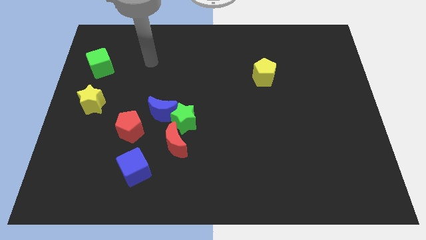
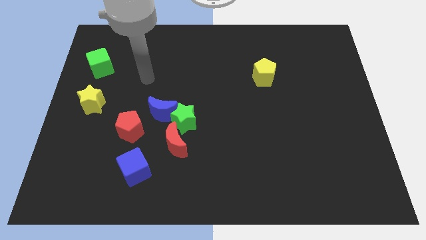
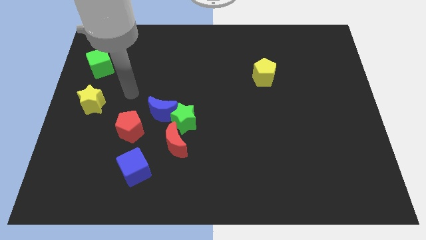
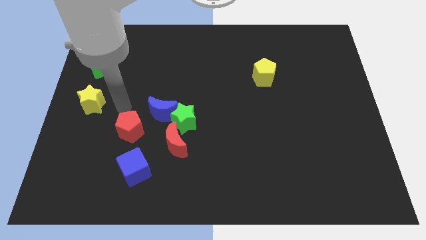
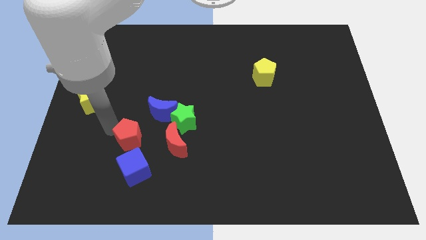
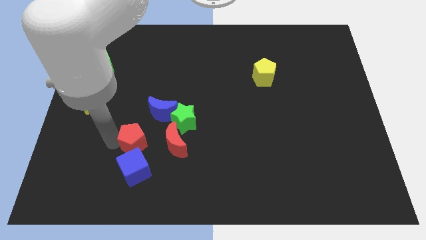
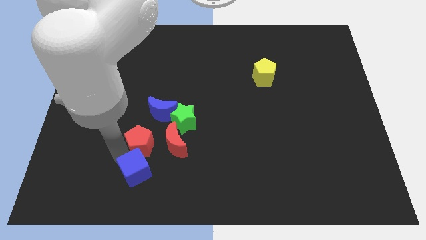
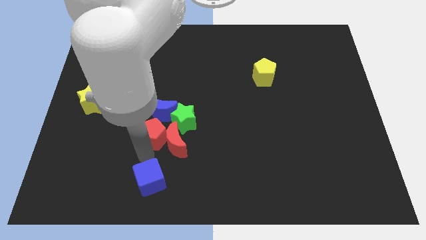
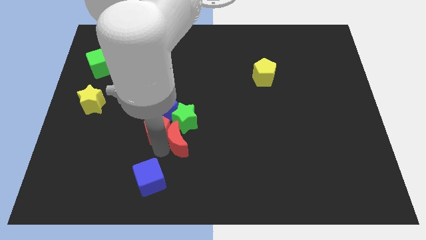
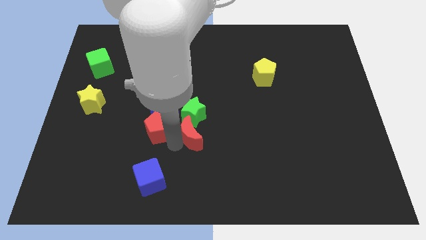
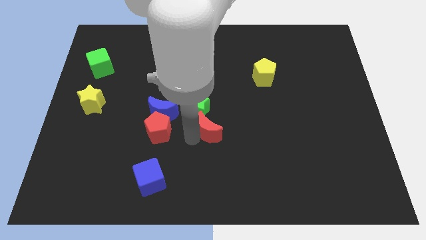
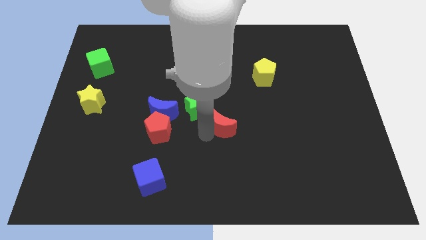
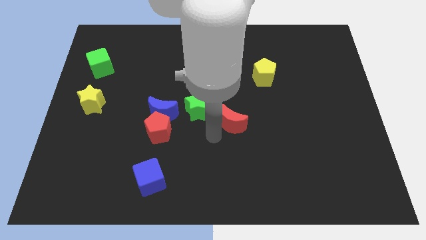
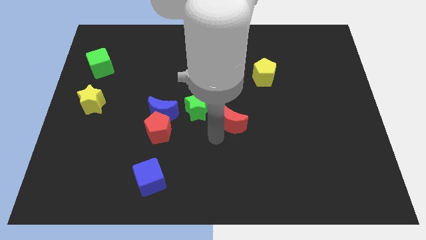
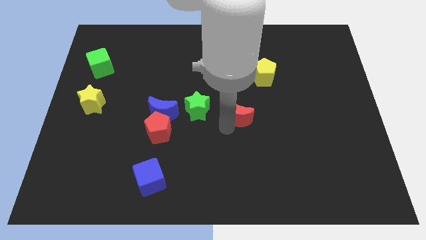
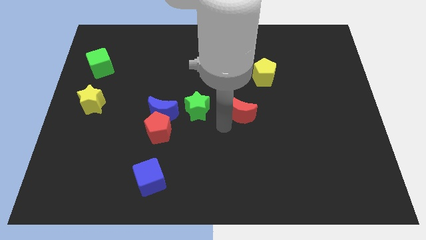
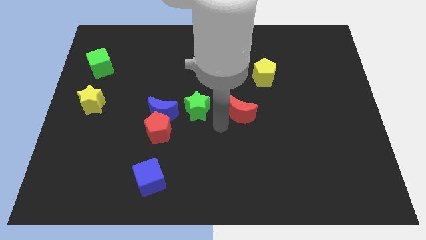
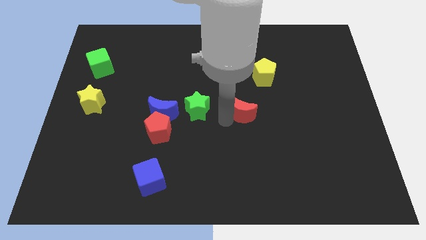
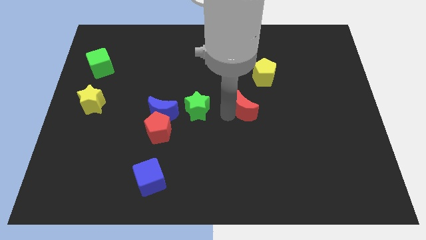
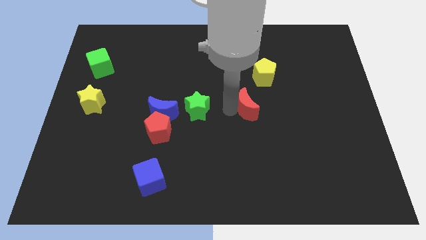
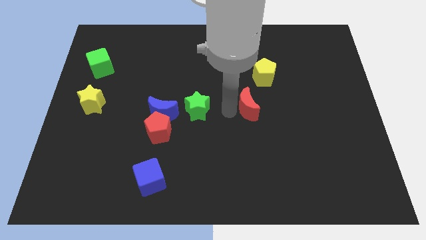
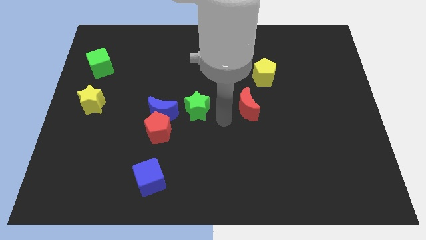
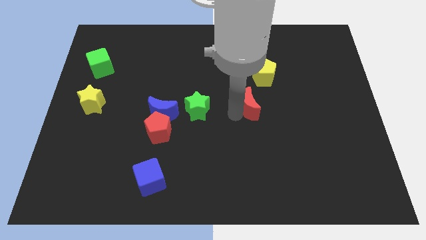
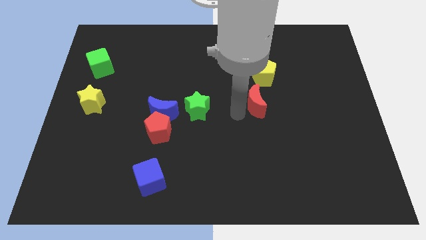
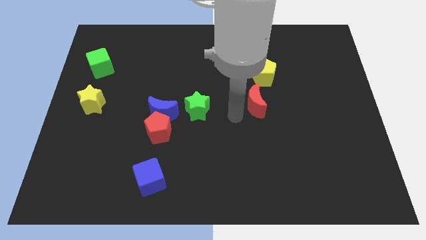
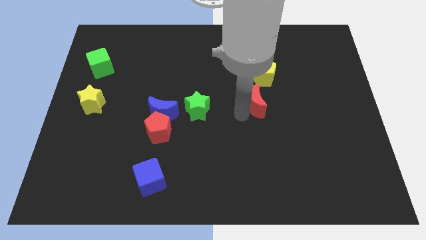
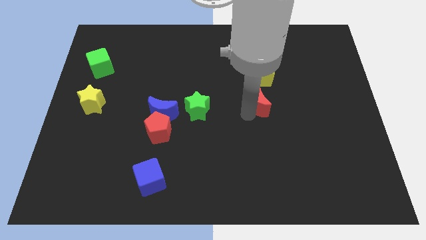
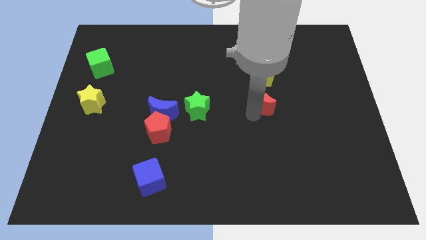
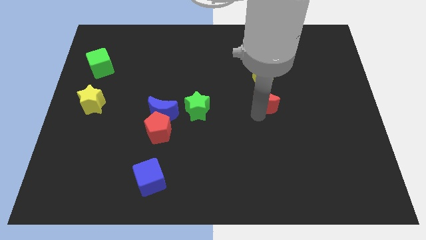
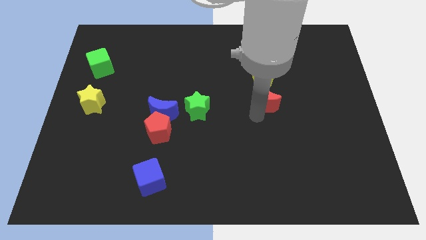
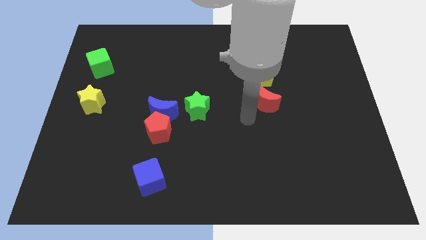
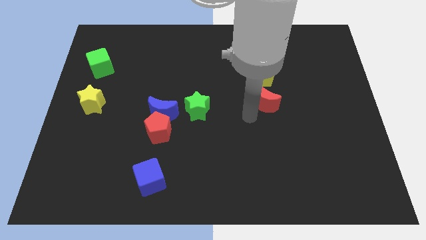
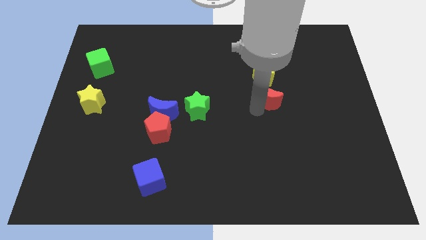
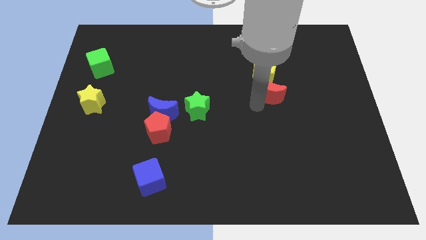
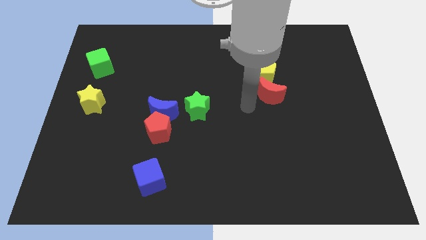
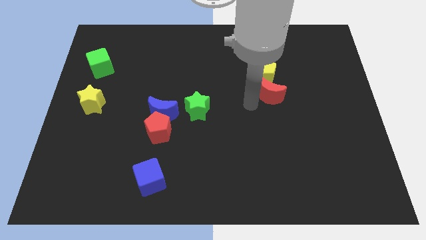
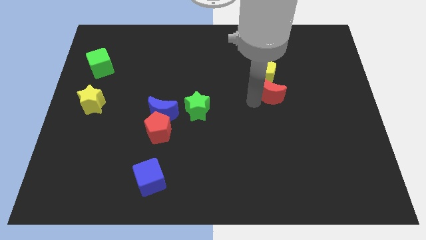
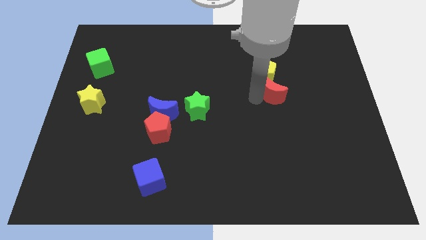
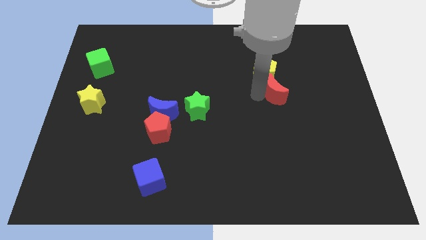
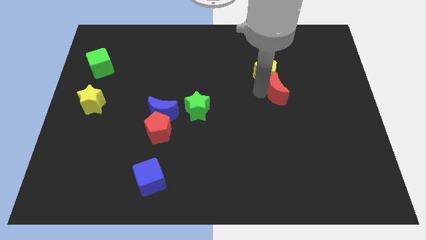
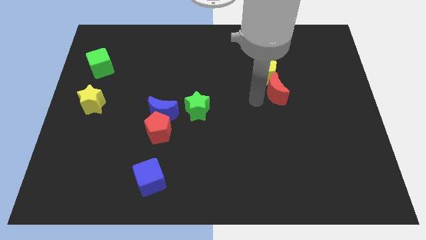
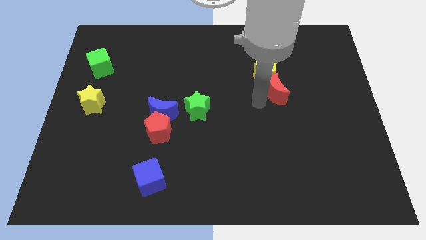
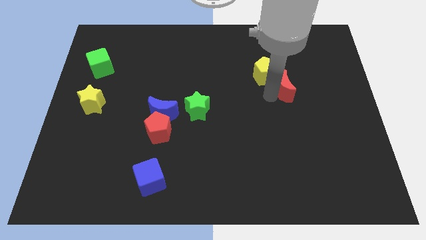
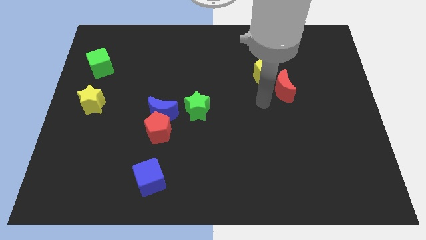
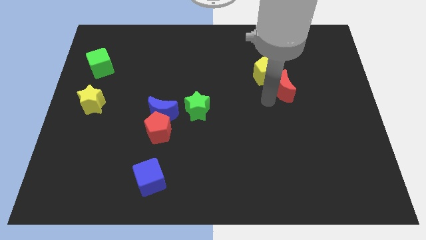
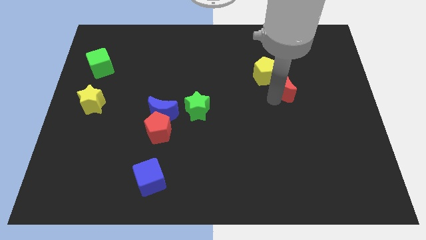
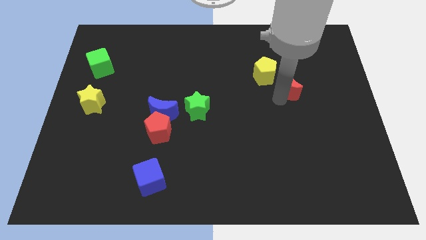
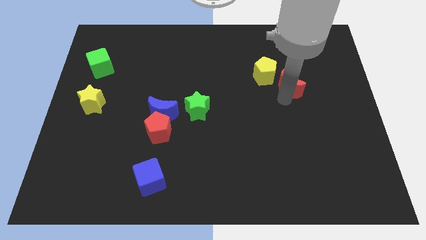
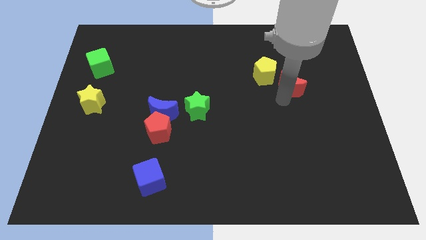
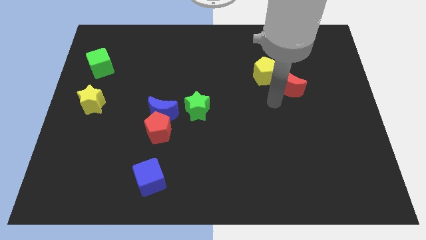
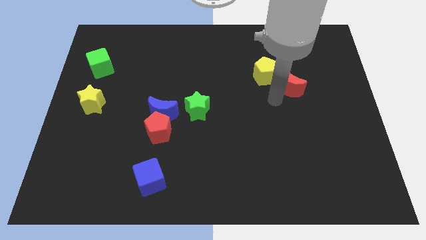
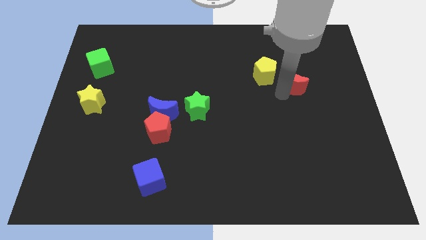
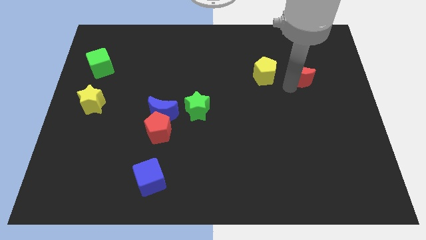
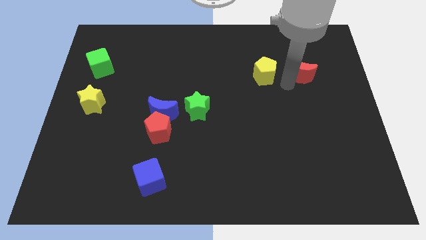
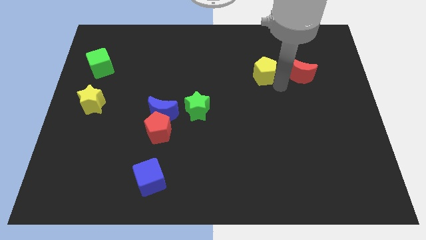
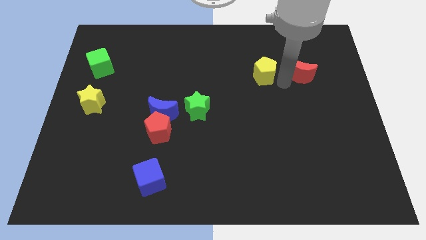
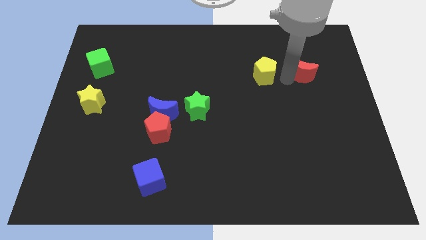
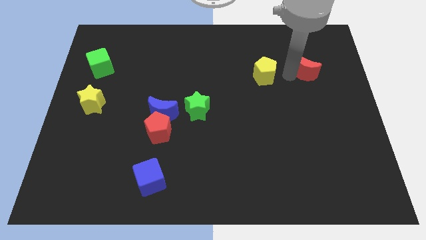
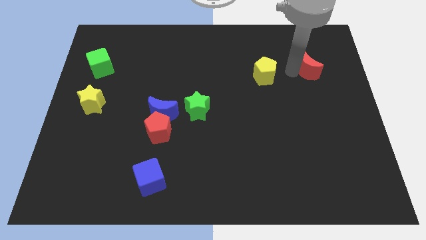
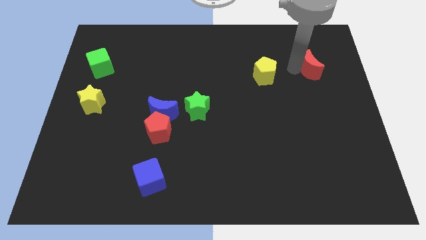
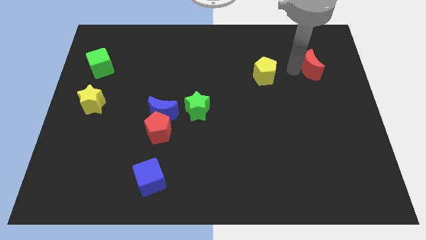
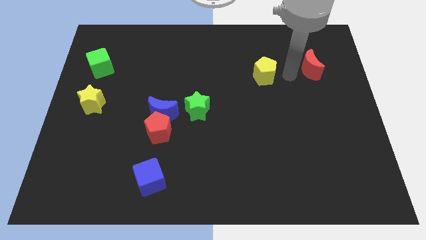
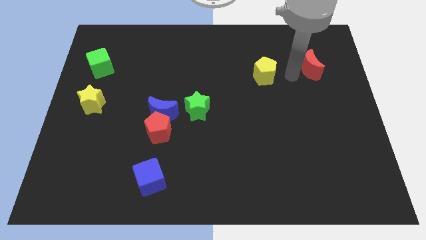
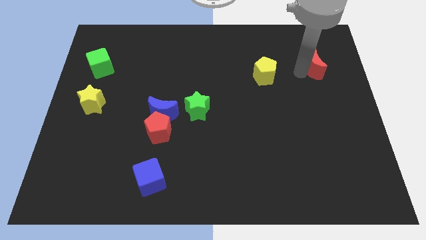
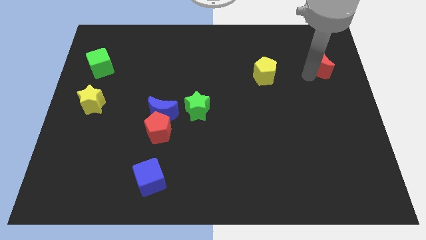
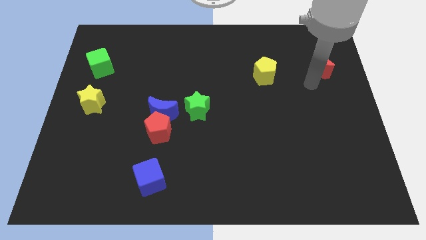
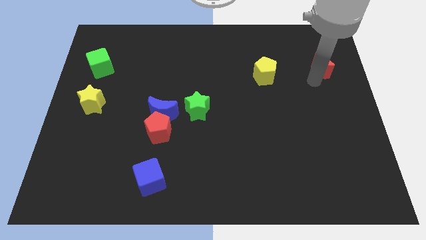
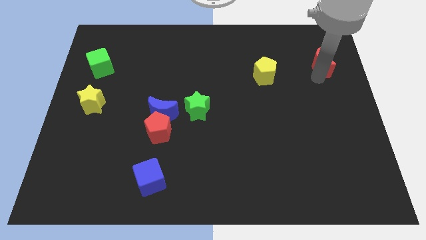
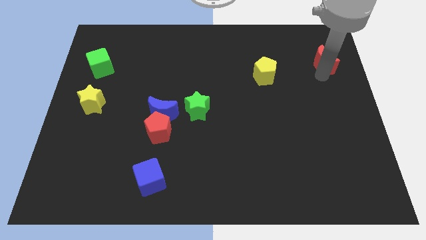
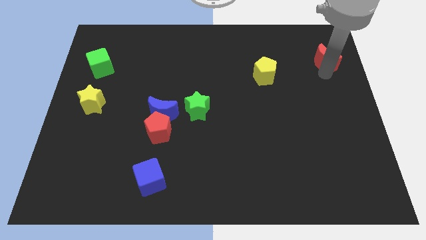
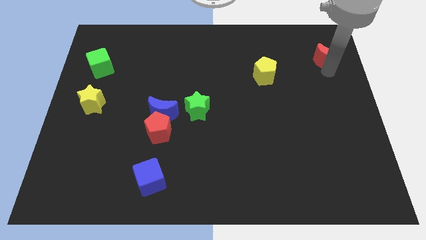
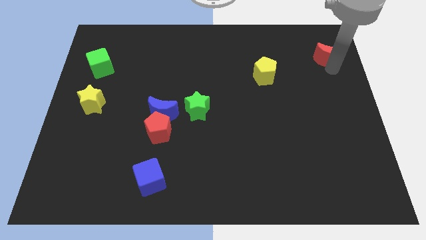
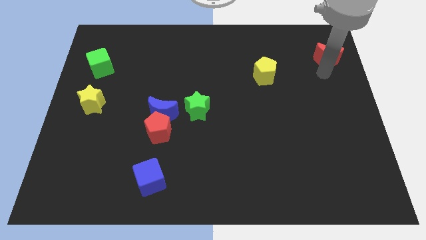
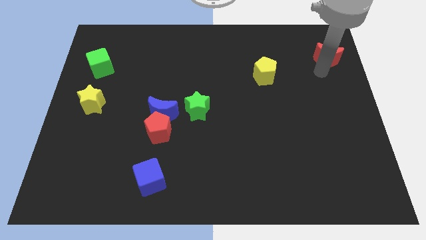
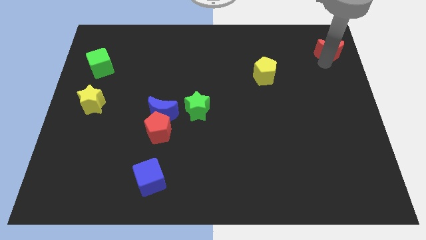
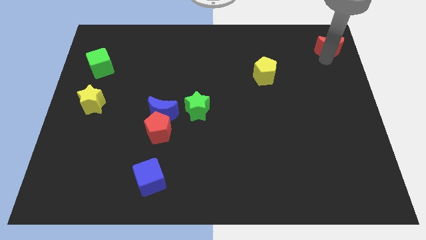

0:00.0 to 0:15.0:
move the red moon to the top right corner
